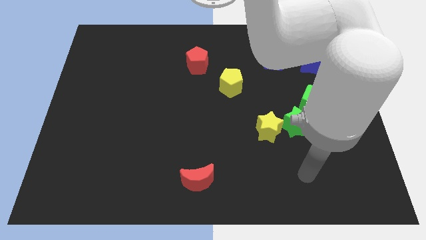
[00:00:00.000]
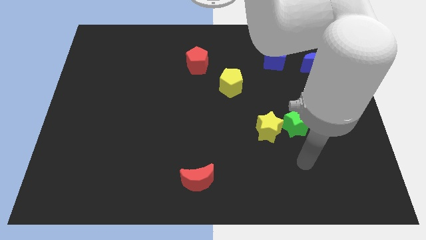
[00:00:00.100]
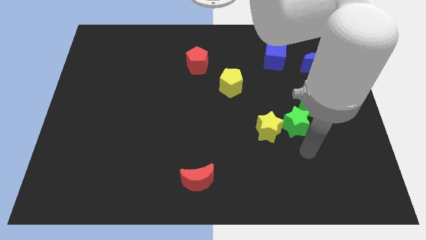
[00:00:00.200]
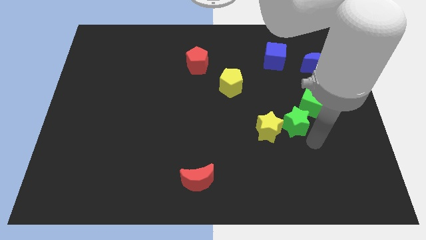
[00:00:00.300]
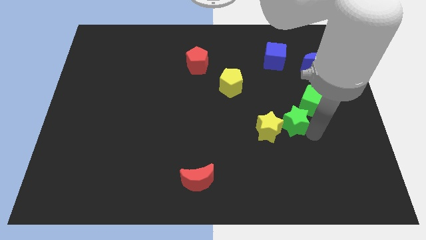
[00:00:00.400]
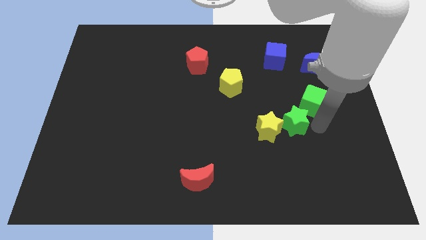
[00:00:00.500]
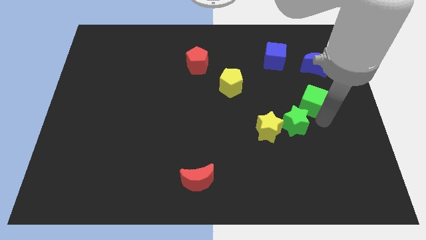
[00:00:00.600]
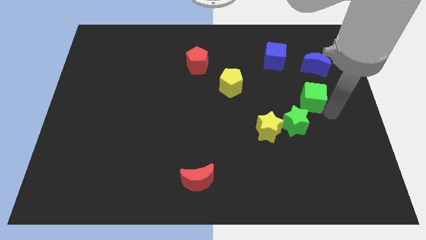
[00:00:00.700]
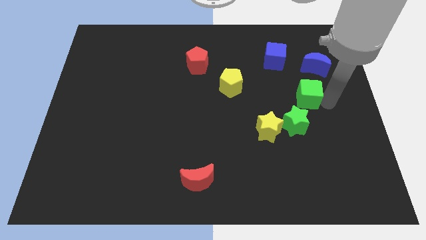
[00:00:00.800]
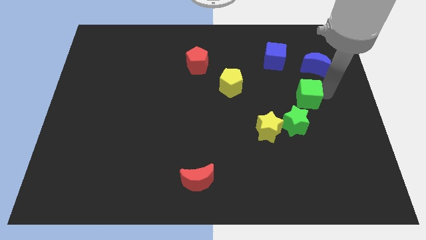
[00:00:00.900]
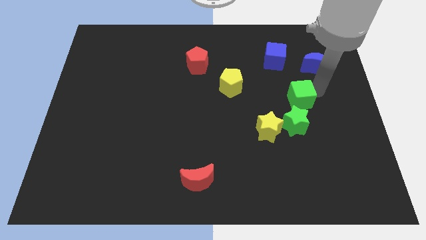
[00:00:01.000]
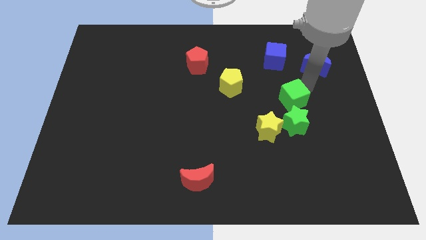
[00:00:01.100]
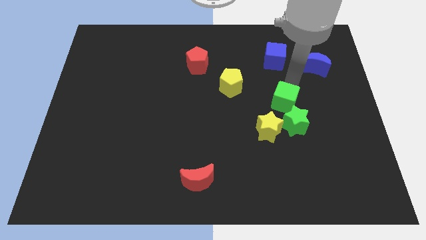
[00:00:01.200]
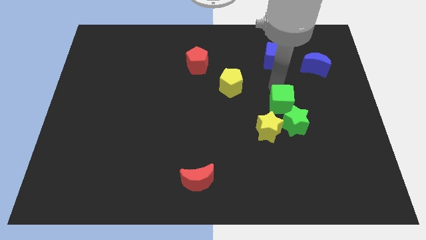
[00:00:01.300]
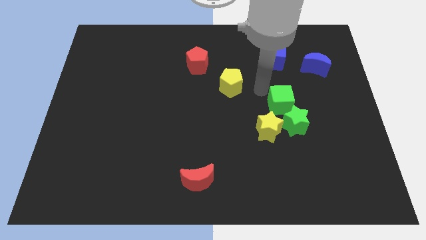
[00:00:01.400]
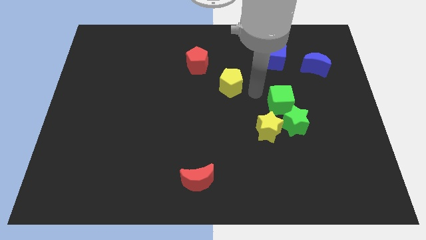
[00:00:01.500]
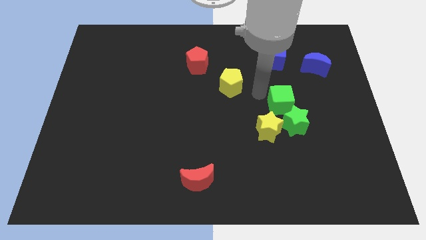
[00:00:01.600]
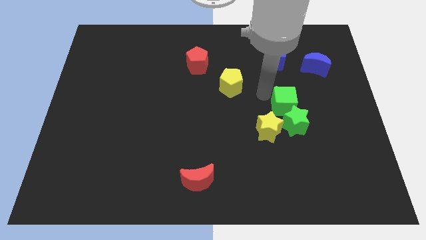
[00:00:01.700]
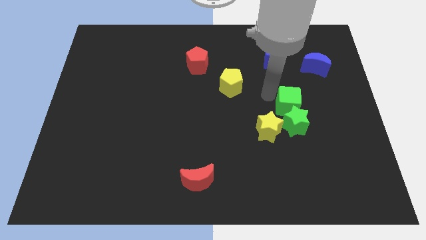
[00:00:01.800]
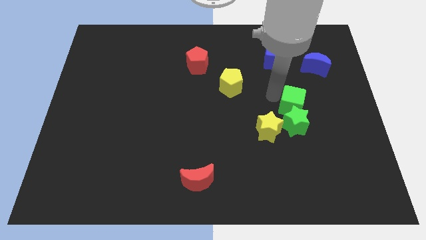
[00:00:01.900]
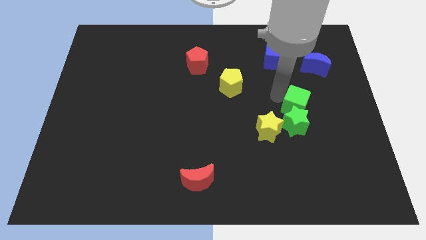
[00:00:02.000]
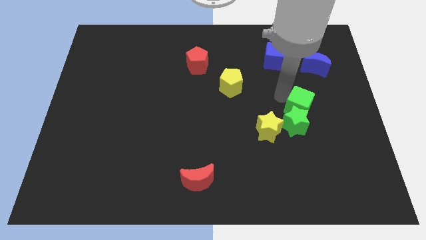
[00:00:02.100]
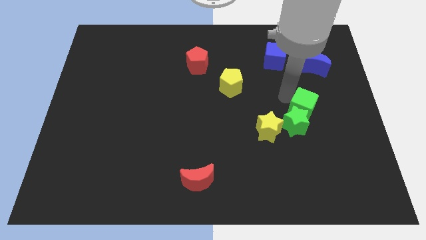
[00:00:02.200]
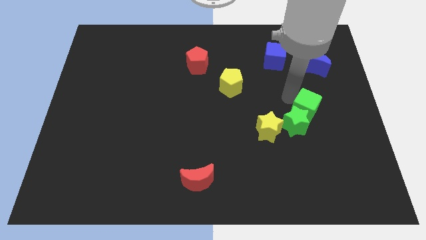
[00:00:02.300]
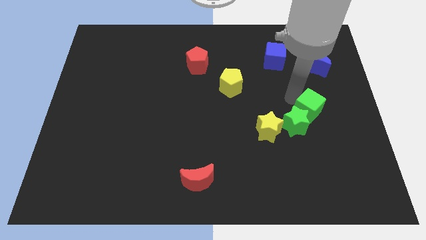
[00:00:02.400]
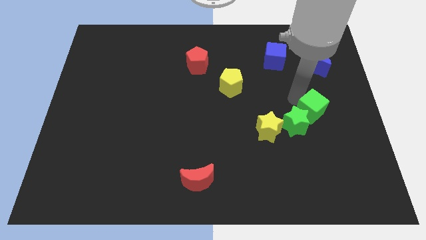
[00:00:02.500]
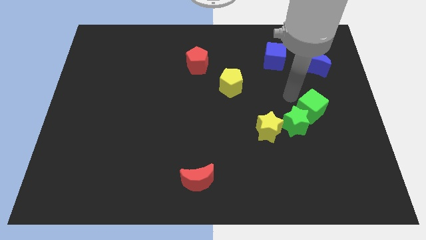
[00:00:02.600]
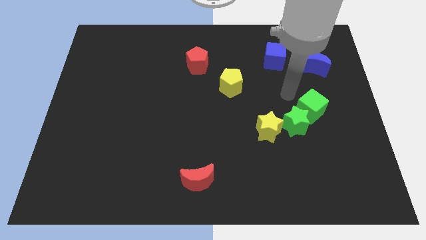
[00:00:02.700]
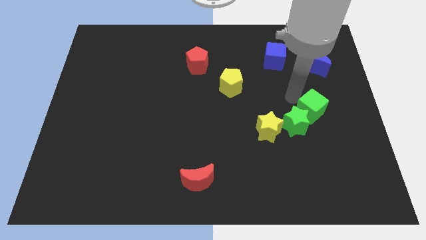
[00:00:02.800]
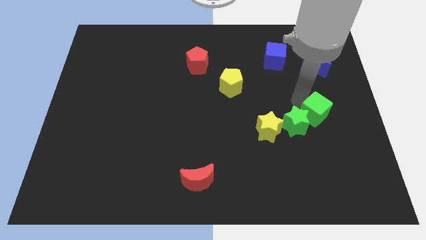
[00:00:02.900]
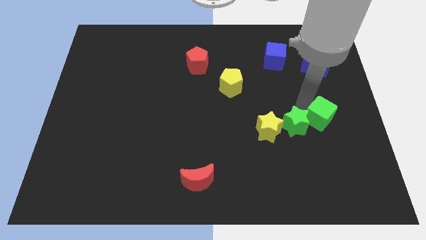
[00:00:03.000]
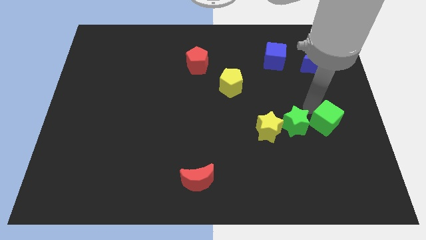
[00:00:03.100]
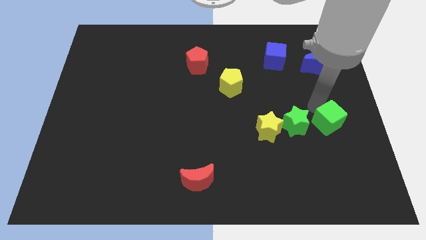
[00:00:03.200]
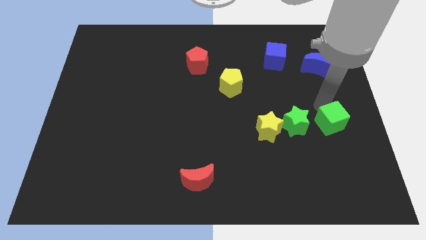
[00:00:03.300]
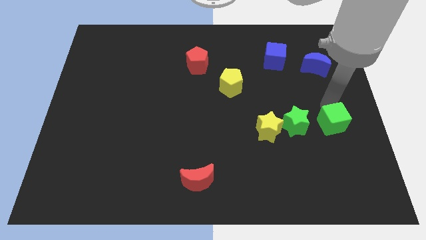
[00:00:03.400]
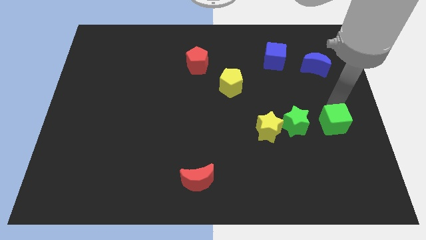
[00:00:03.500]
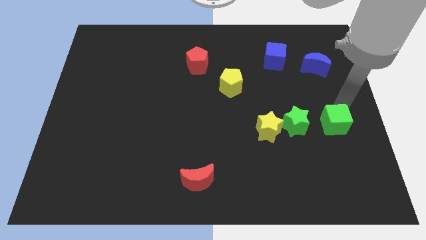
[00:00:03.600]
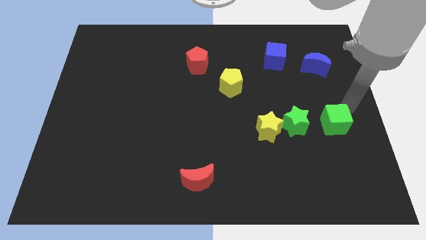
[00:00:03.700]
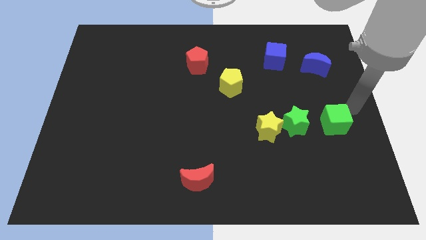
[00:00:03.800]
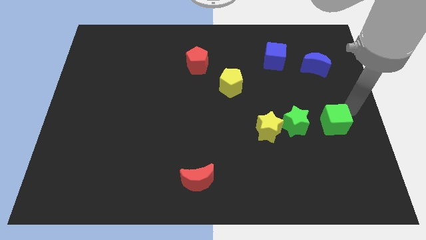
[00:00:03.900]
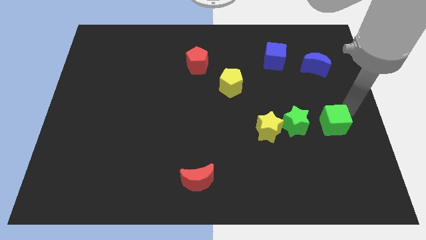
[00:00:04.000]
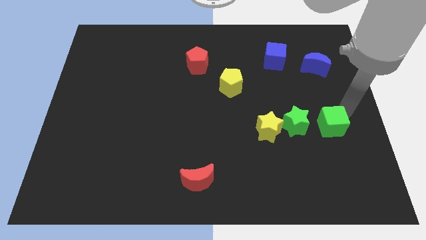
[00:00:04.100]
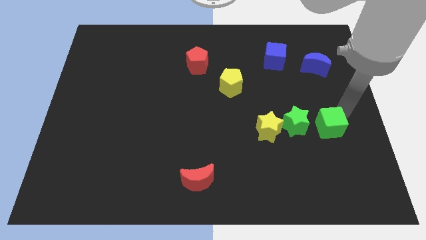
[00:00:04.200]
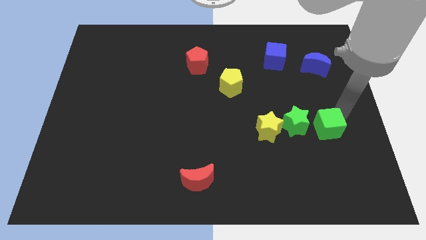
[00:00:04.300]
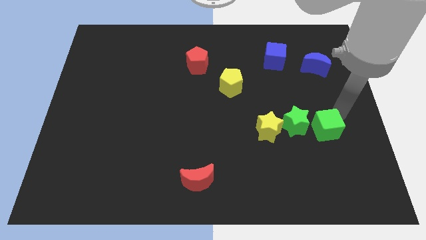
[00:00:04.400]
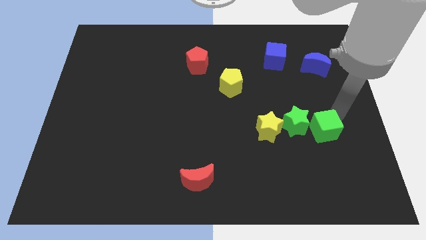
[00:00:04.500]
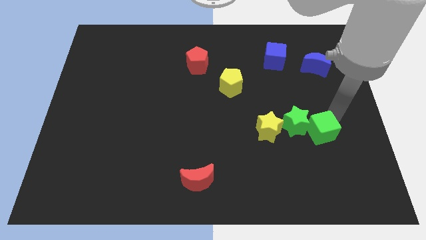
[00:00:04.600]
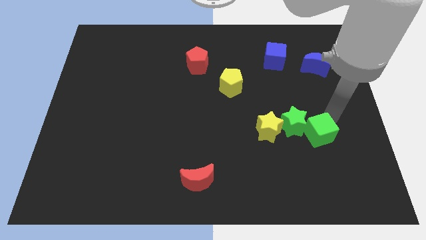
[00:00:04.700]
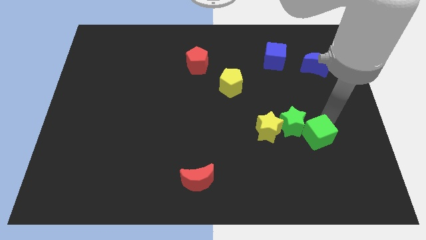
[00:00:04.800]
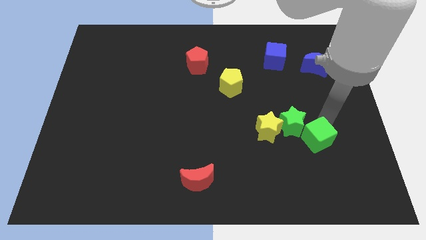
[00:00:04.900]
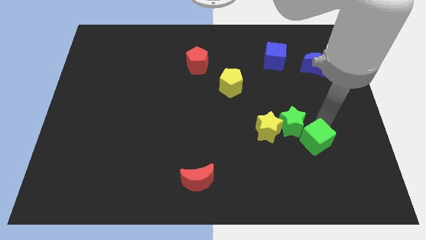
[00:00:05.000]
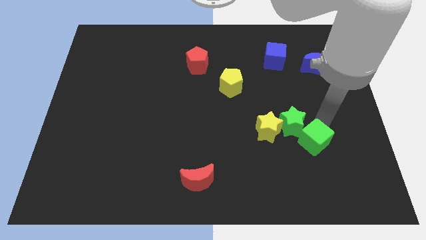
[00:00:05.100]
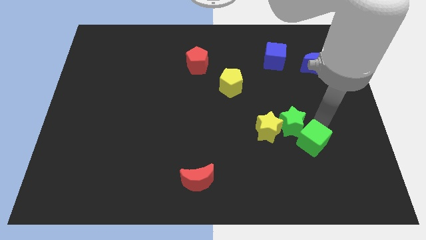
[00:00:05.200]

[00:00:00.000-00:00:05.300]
move the green cube somewhat down and then left

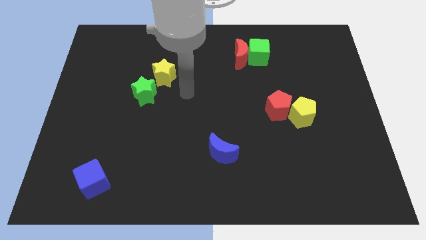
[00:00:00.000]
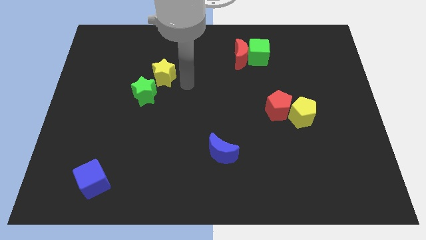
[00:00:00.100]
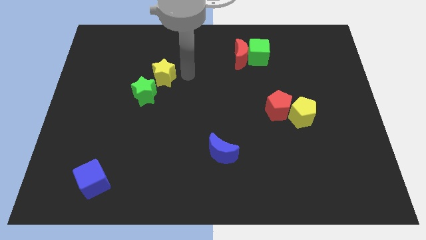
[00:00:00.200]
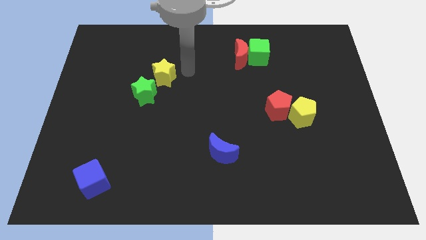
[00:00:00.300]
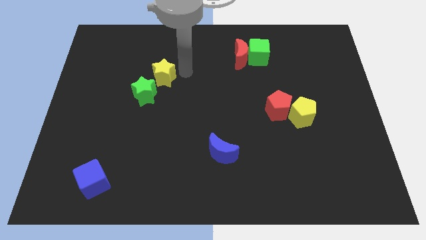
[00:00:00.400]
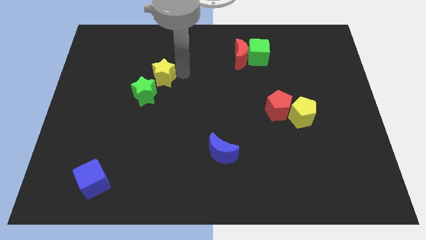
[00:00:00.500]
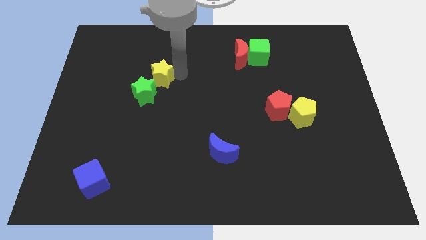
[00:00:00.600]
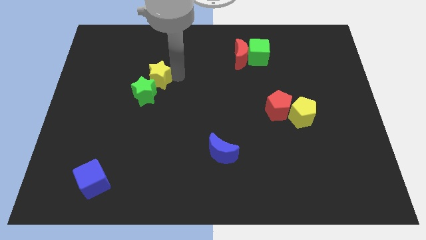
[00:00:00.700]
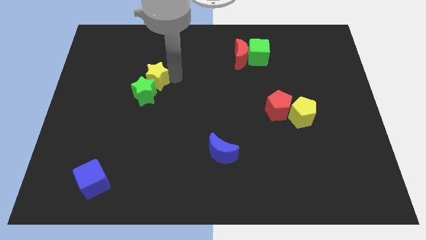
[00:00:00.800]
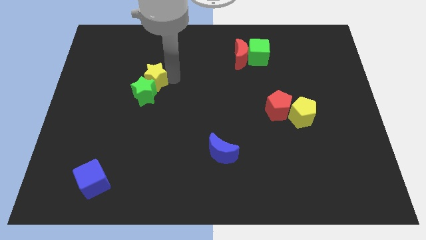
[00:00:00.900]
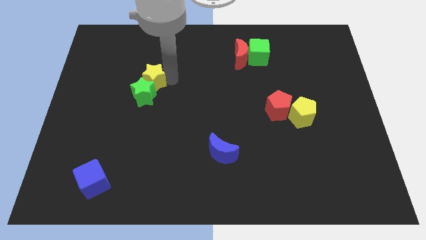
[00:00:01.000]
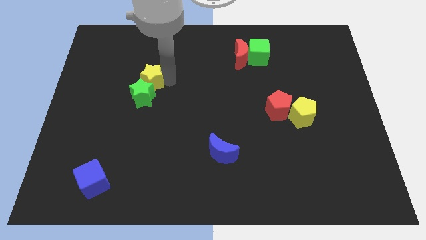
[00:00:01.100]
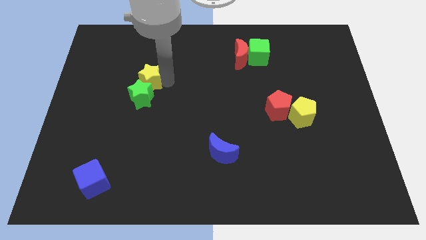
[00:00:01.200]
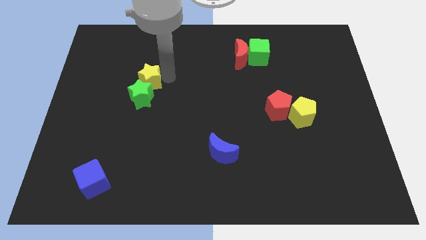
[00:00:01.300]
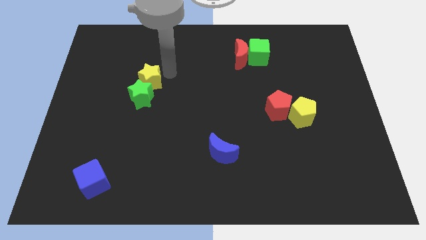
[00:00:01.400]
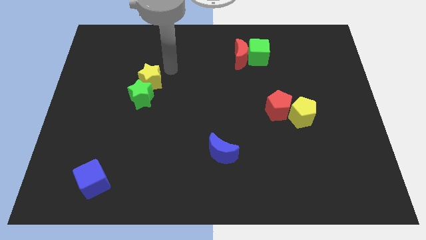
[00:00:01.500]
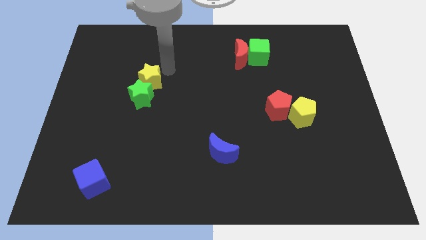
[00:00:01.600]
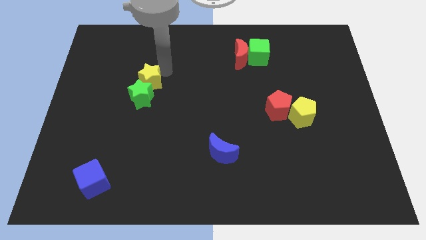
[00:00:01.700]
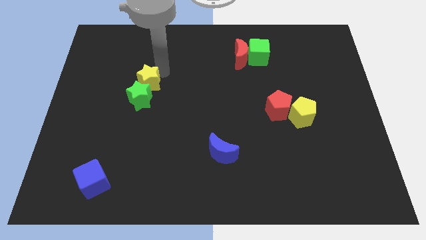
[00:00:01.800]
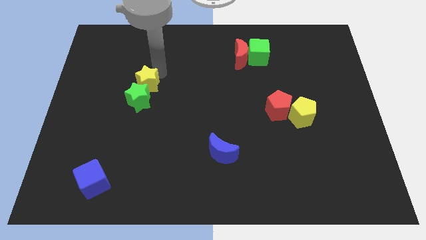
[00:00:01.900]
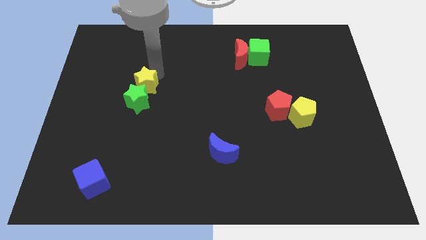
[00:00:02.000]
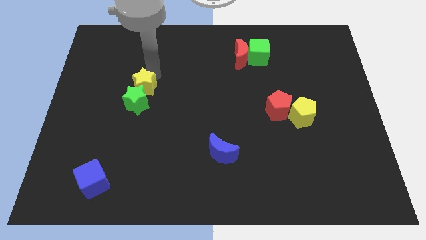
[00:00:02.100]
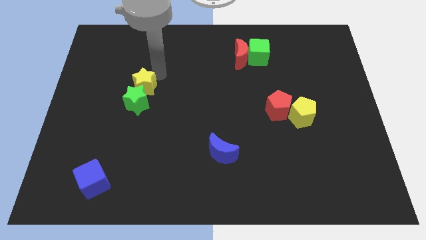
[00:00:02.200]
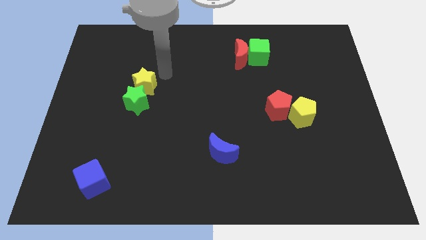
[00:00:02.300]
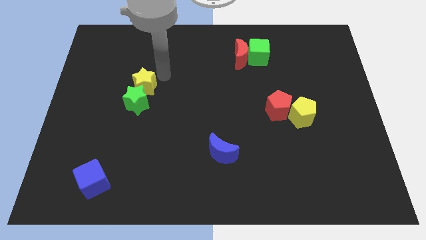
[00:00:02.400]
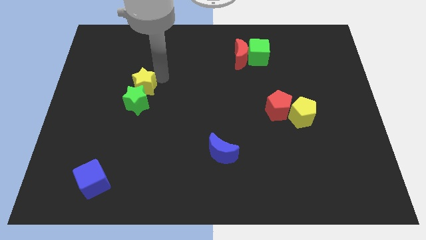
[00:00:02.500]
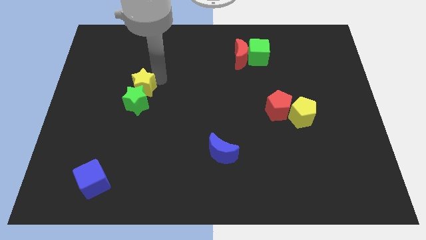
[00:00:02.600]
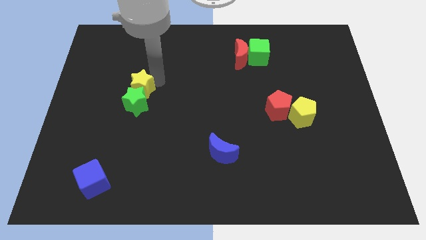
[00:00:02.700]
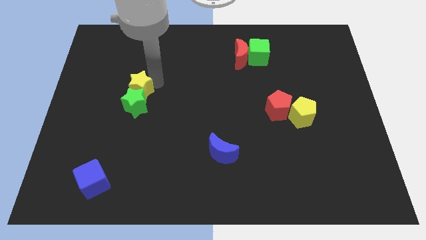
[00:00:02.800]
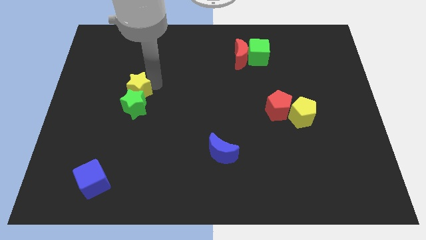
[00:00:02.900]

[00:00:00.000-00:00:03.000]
push the yellow star downwards and left diagonally a little
